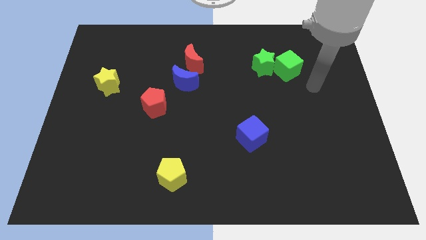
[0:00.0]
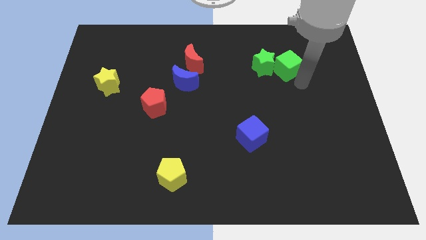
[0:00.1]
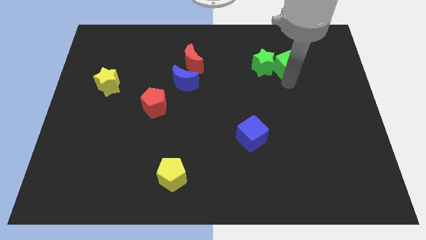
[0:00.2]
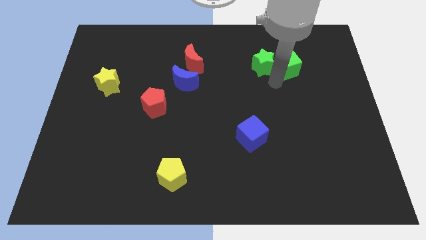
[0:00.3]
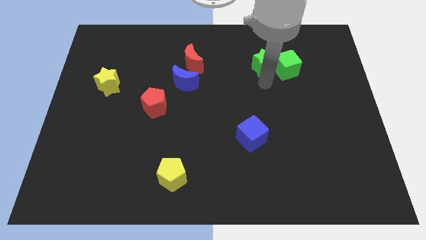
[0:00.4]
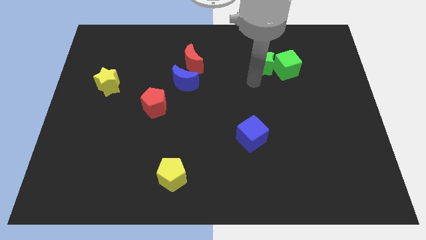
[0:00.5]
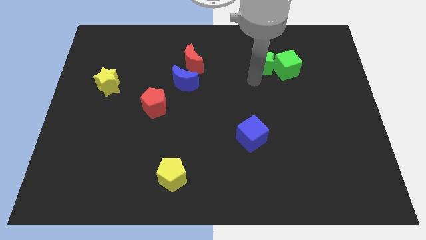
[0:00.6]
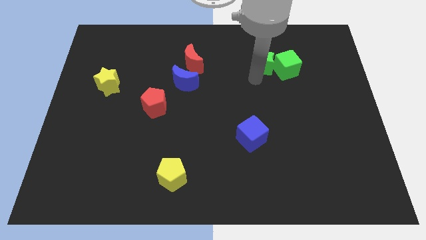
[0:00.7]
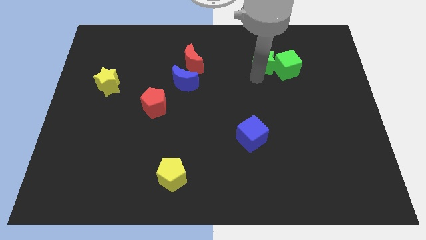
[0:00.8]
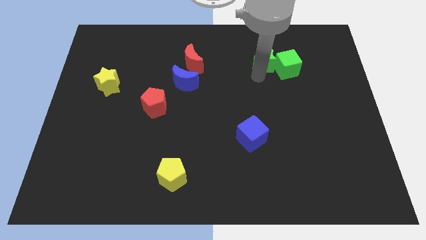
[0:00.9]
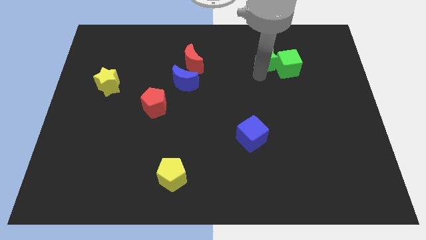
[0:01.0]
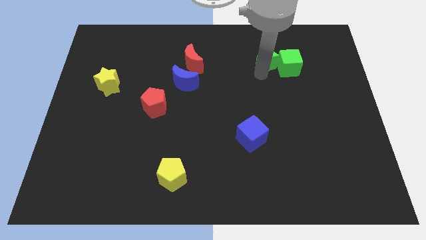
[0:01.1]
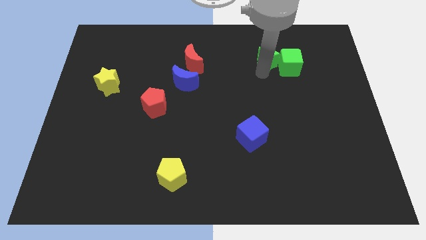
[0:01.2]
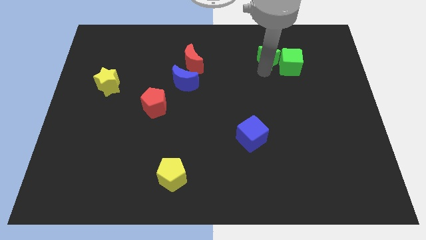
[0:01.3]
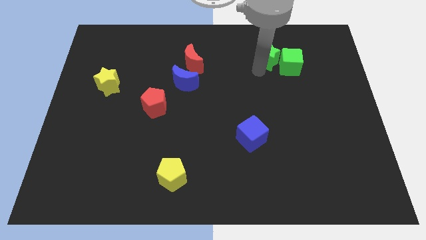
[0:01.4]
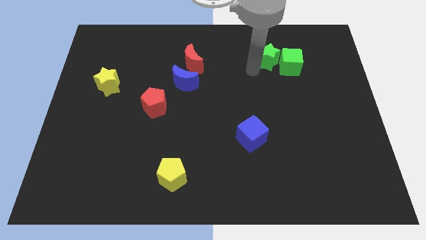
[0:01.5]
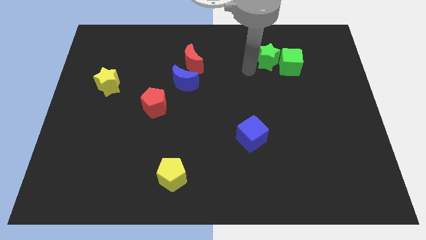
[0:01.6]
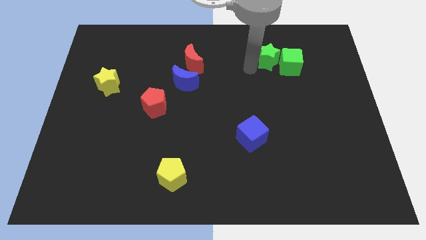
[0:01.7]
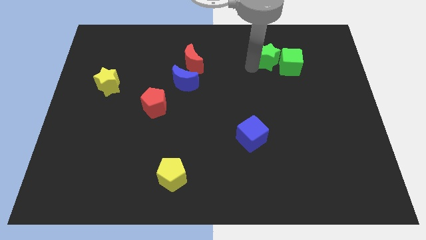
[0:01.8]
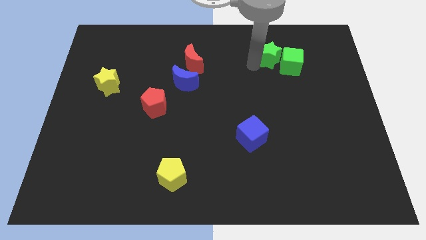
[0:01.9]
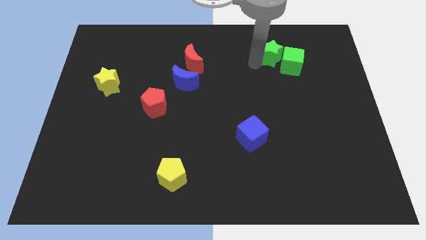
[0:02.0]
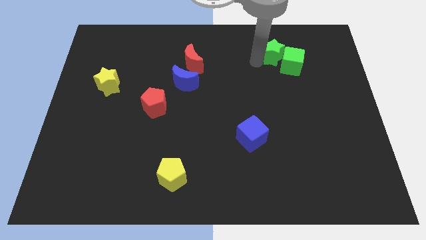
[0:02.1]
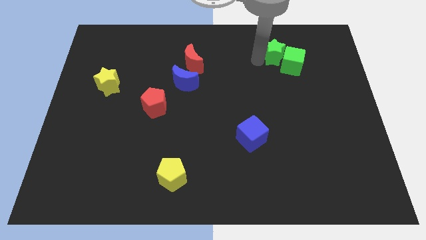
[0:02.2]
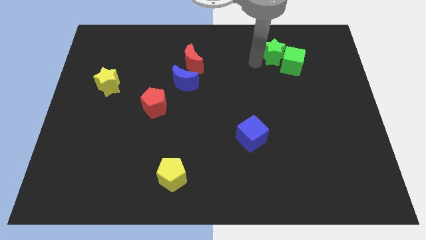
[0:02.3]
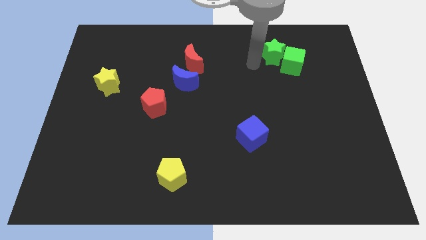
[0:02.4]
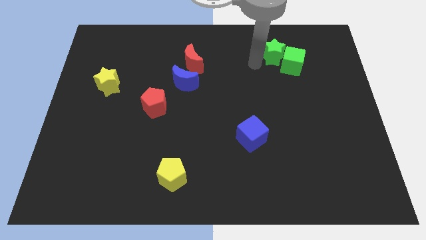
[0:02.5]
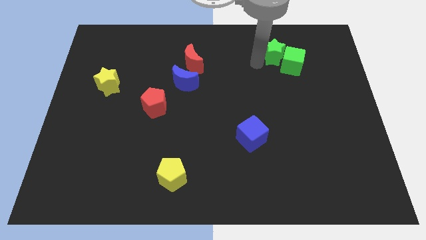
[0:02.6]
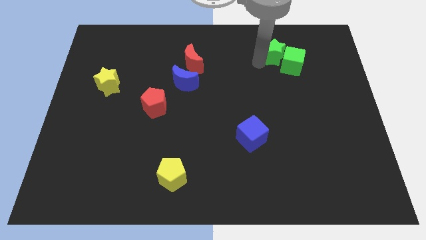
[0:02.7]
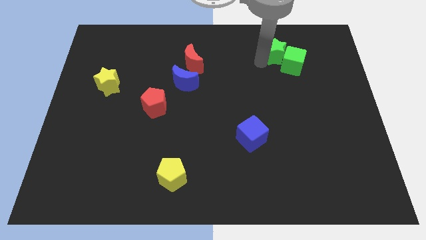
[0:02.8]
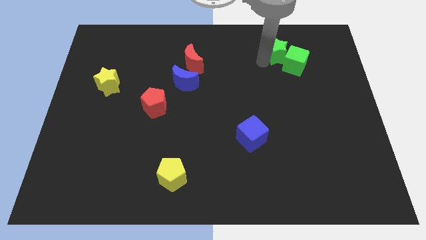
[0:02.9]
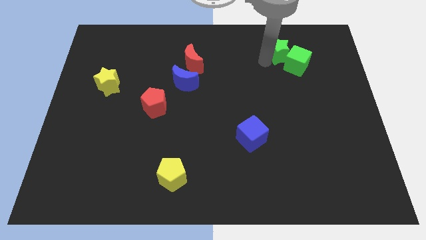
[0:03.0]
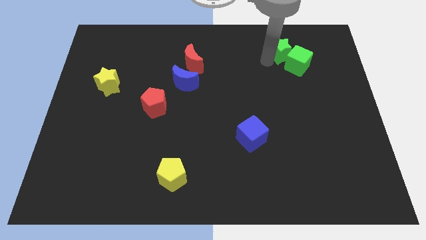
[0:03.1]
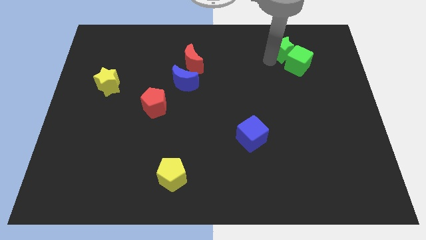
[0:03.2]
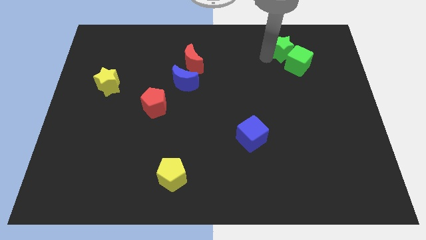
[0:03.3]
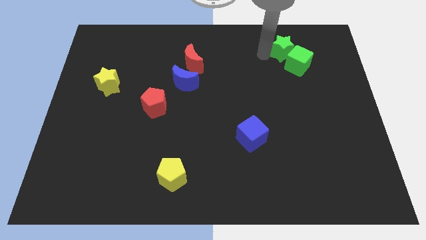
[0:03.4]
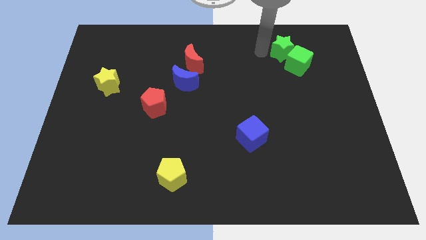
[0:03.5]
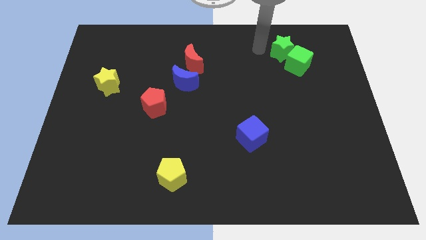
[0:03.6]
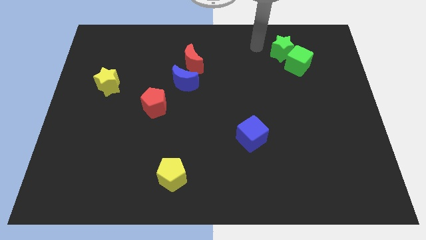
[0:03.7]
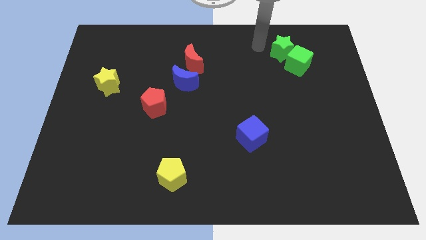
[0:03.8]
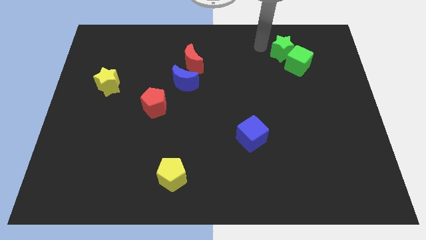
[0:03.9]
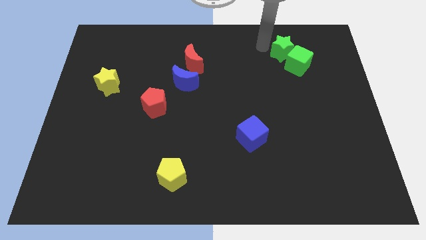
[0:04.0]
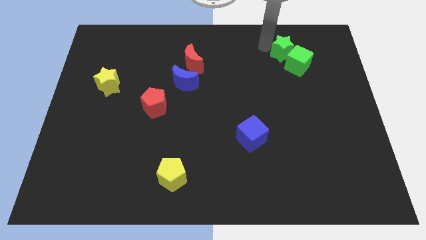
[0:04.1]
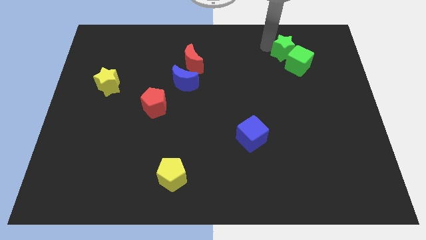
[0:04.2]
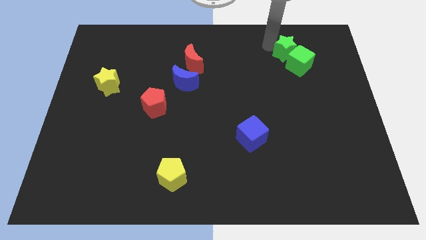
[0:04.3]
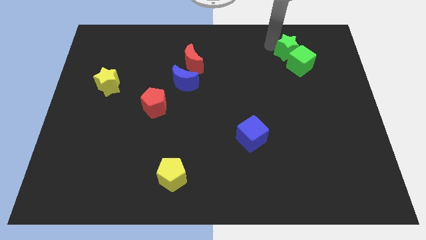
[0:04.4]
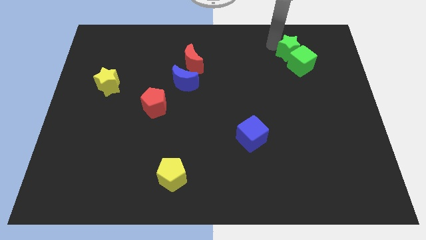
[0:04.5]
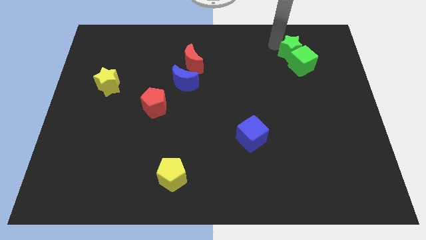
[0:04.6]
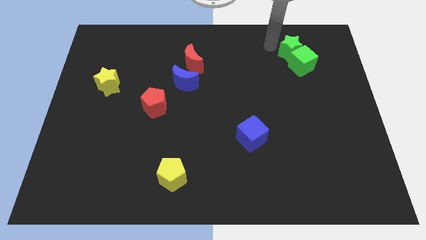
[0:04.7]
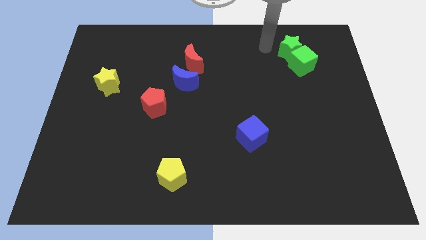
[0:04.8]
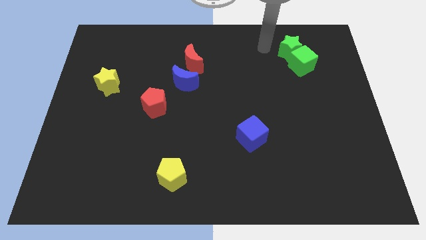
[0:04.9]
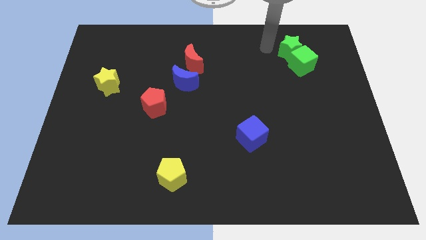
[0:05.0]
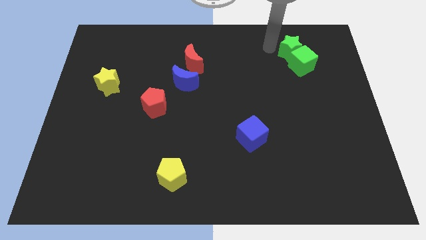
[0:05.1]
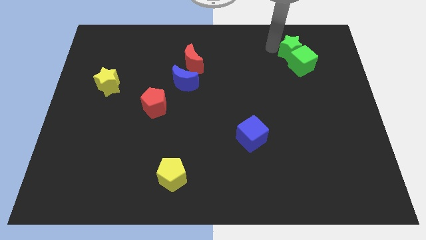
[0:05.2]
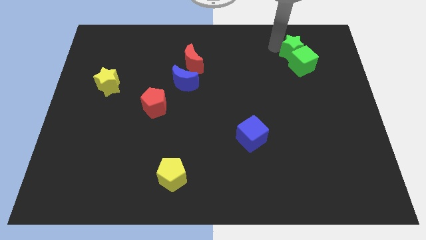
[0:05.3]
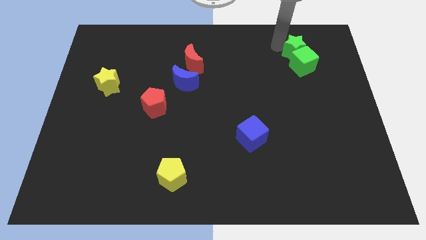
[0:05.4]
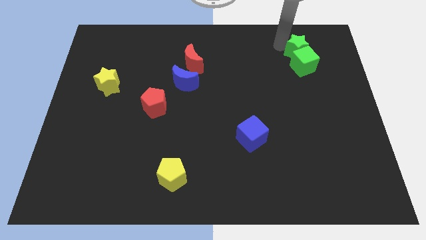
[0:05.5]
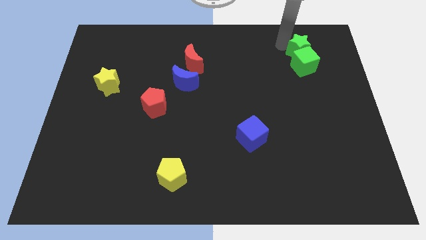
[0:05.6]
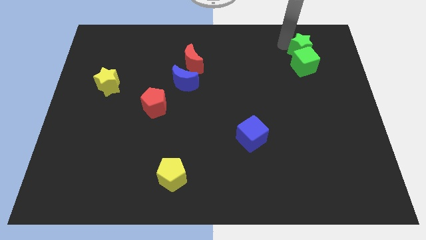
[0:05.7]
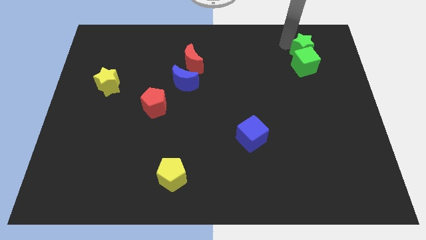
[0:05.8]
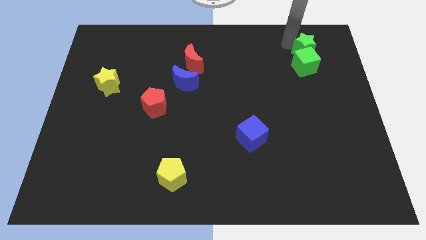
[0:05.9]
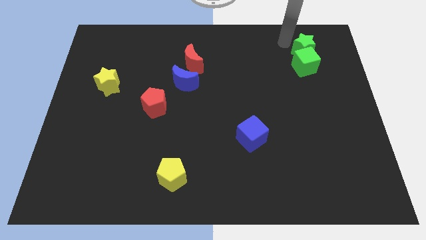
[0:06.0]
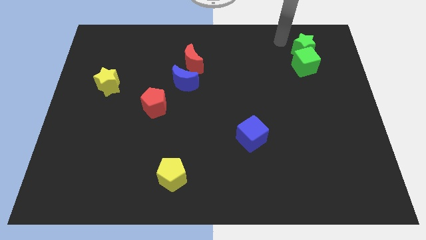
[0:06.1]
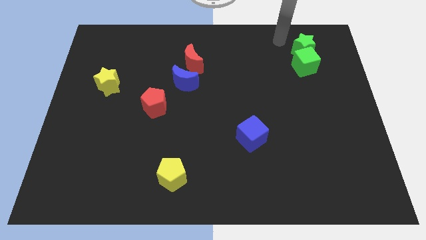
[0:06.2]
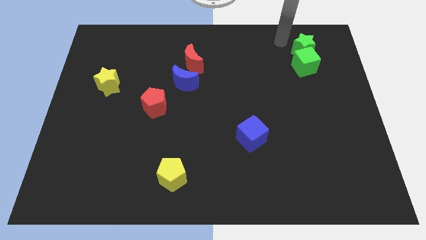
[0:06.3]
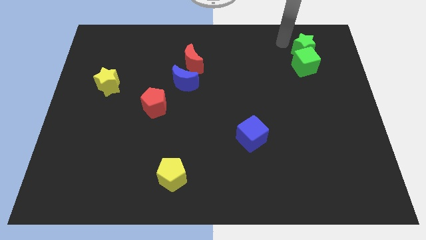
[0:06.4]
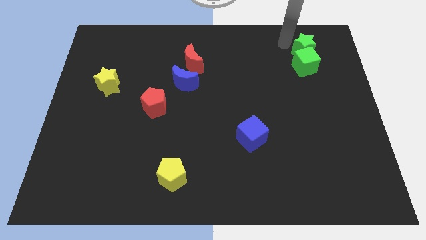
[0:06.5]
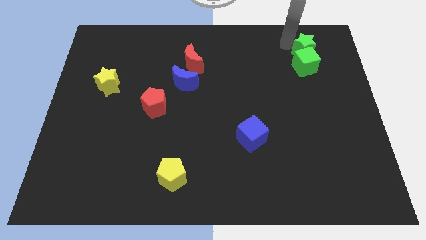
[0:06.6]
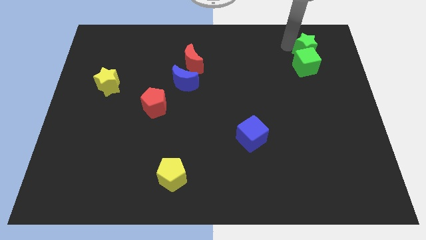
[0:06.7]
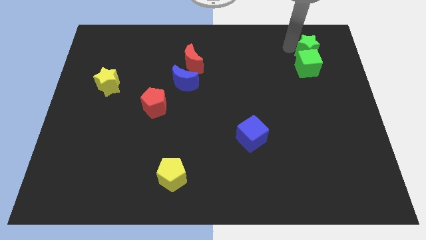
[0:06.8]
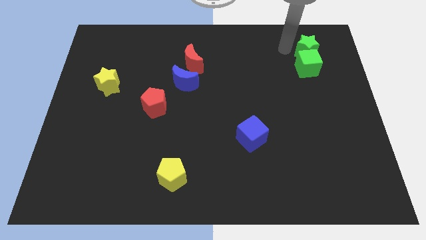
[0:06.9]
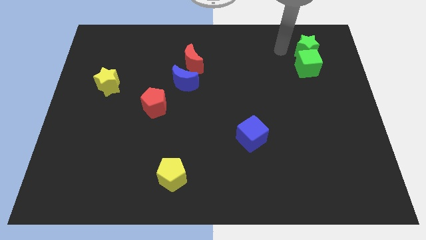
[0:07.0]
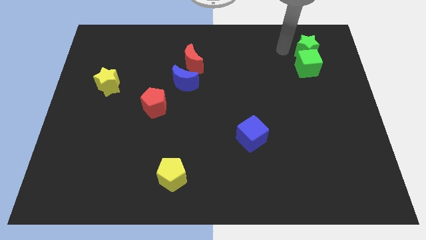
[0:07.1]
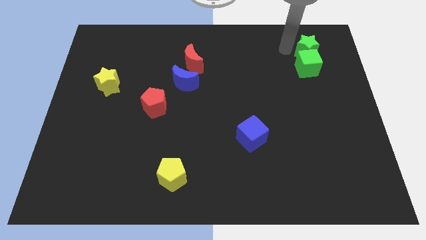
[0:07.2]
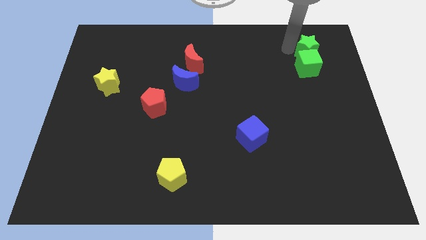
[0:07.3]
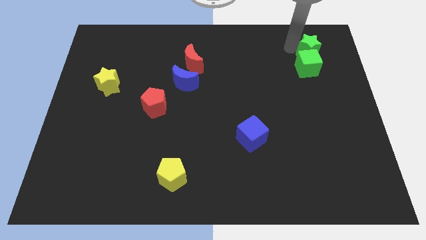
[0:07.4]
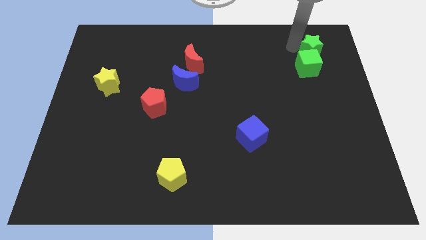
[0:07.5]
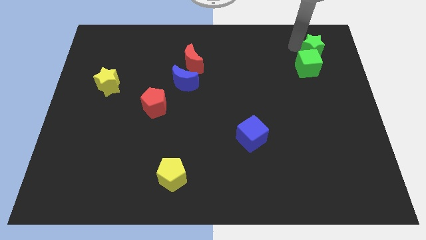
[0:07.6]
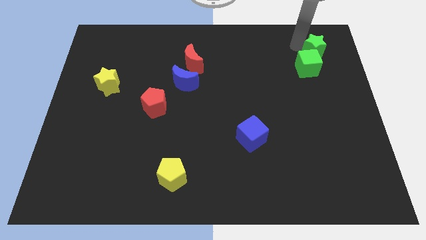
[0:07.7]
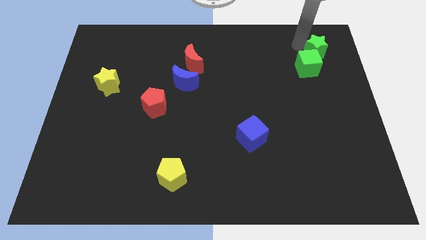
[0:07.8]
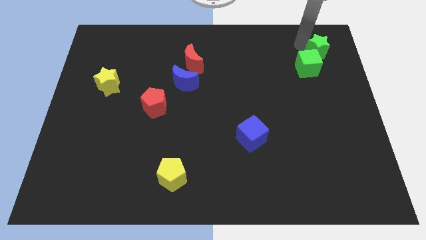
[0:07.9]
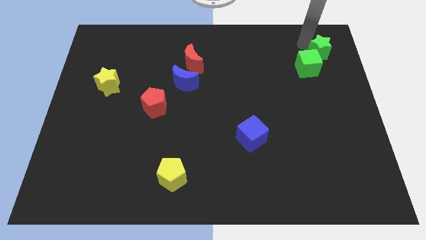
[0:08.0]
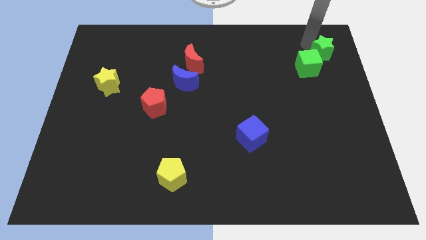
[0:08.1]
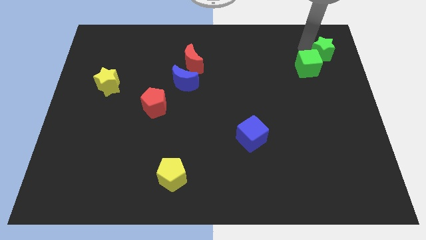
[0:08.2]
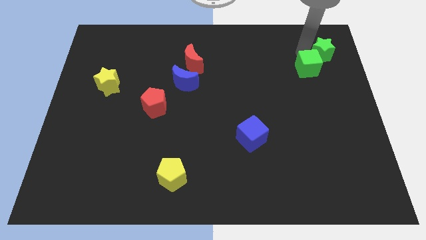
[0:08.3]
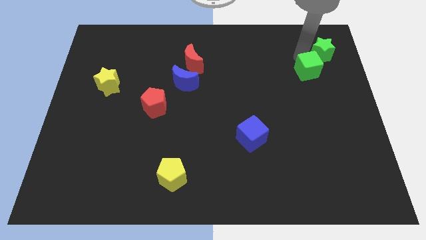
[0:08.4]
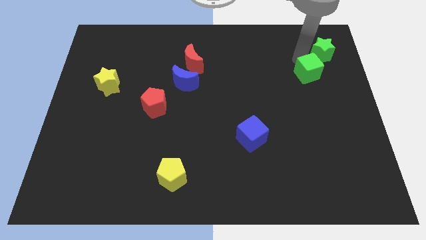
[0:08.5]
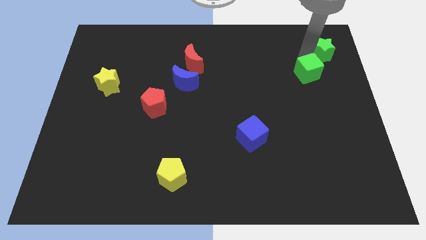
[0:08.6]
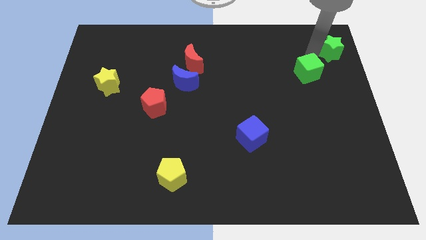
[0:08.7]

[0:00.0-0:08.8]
push the green star to the top right
